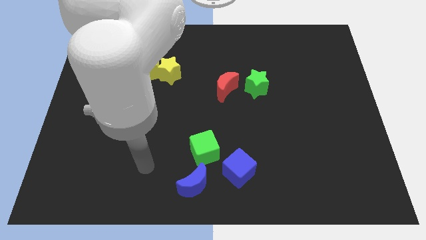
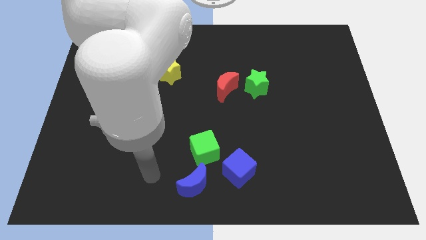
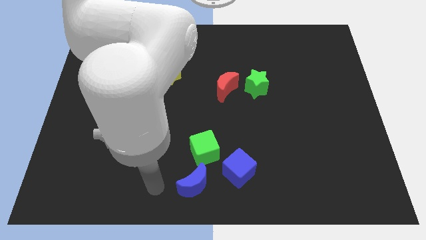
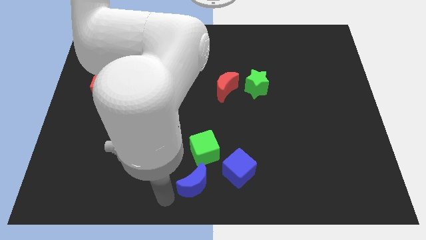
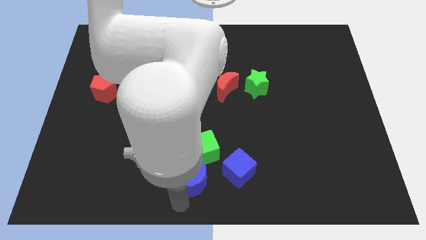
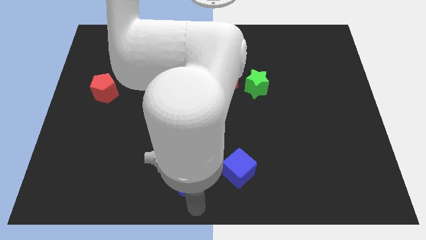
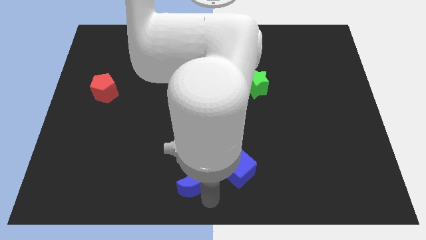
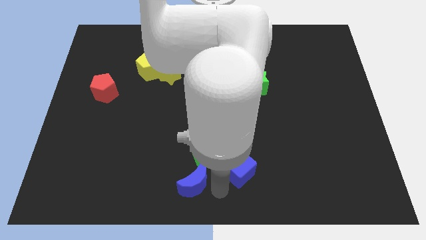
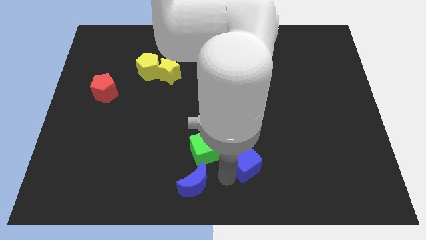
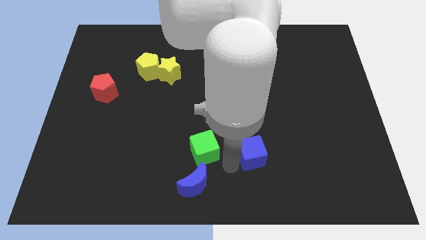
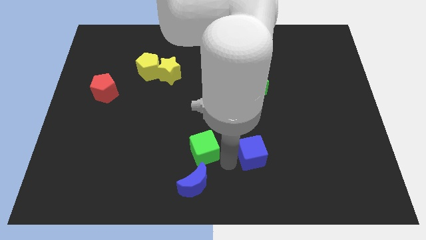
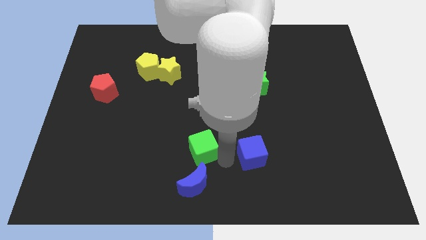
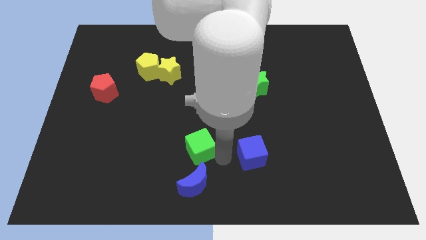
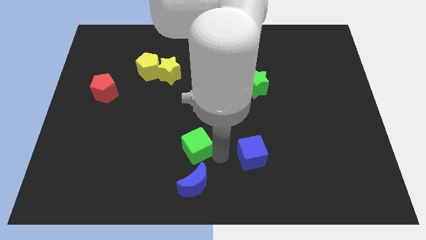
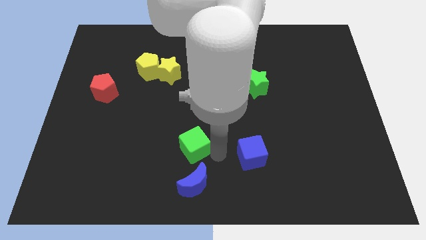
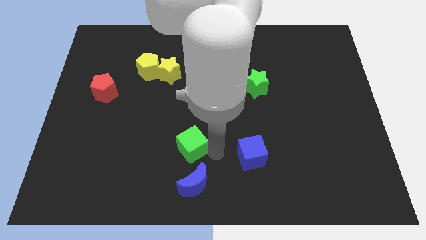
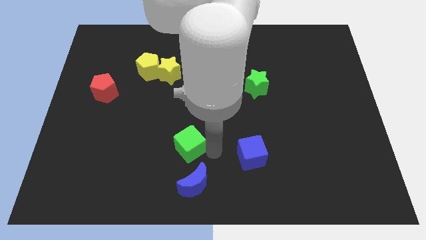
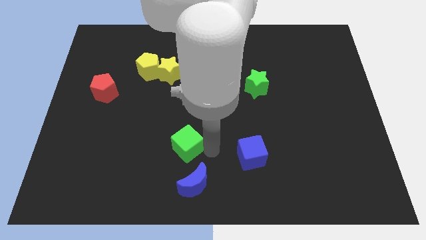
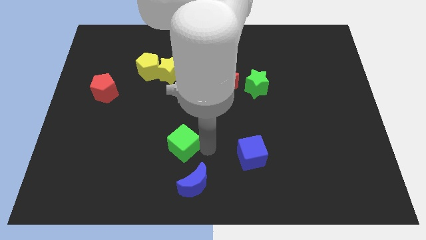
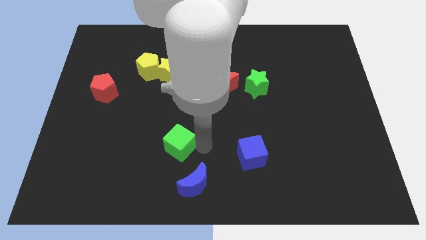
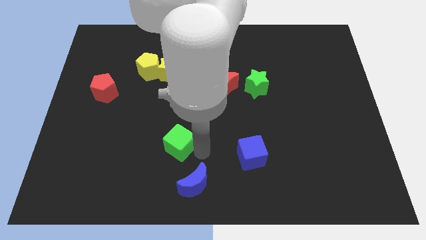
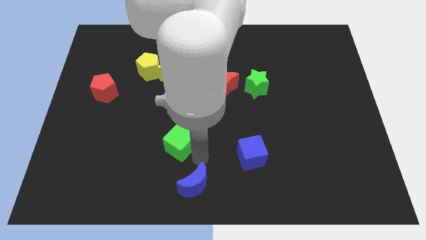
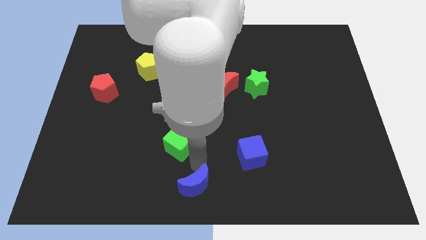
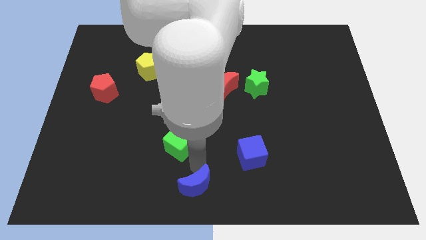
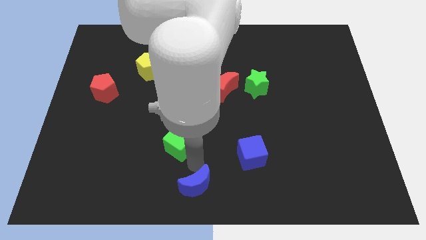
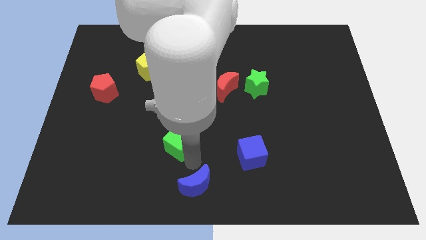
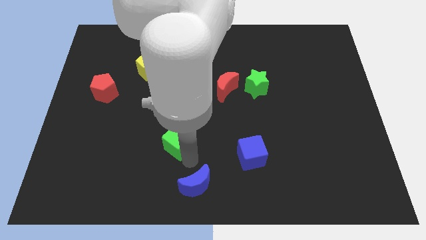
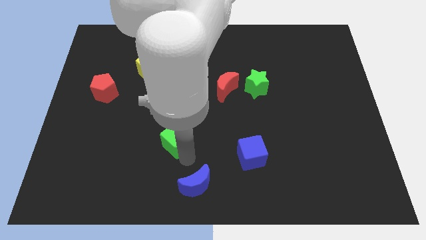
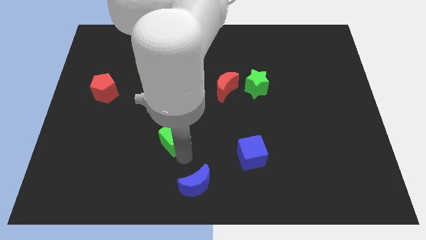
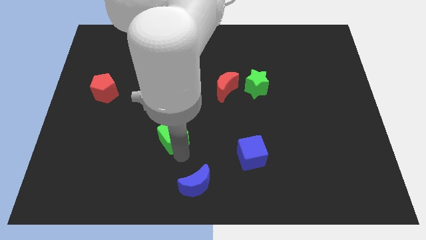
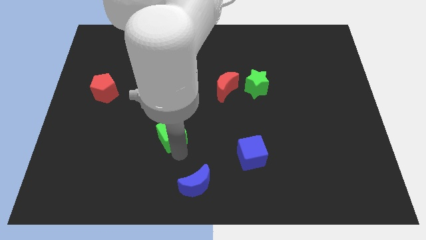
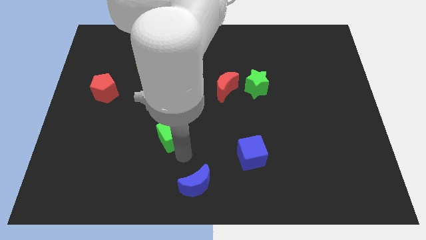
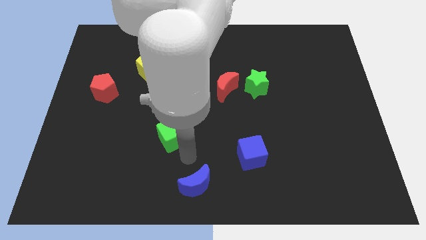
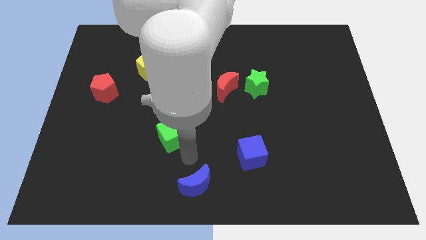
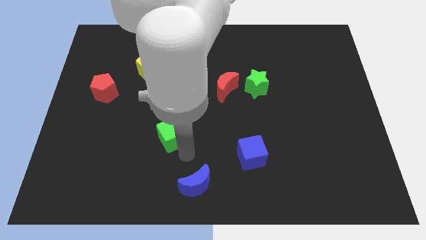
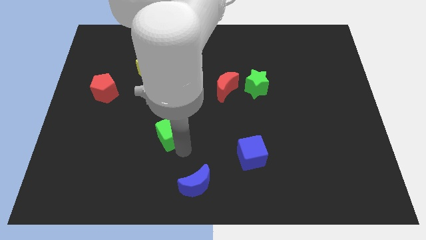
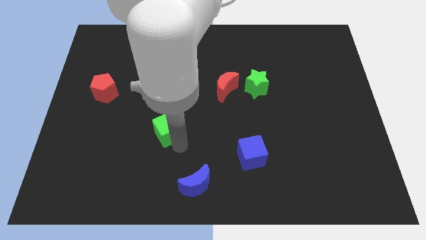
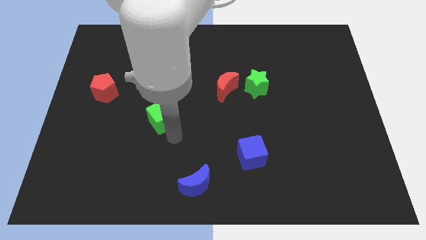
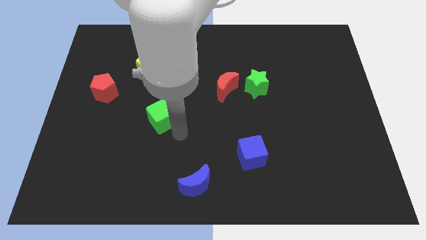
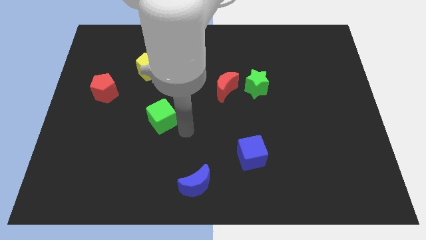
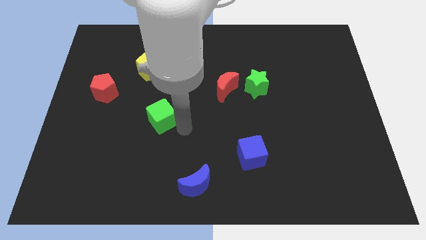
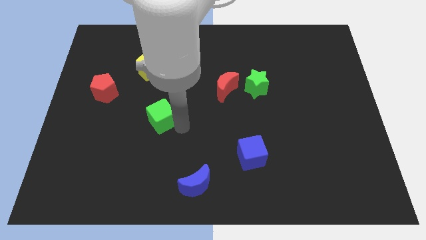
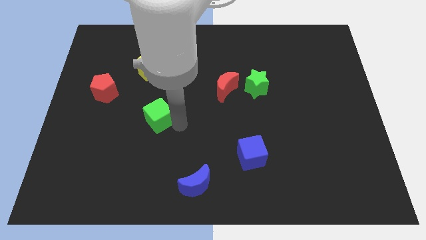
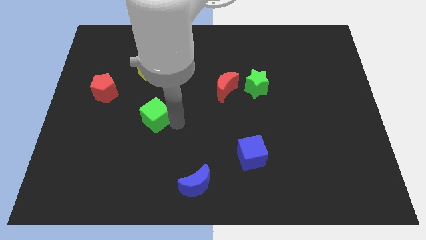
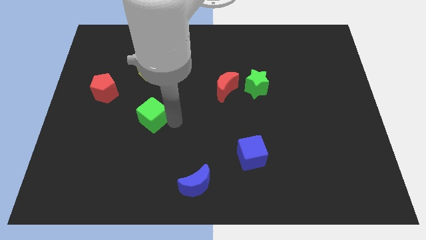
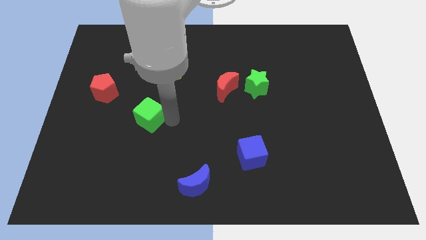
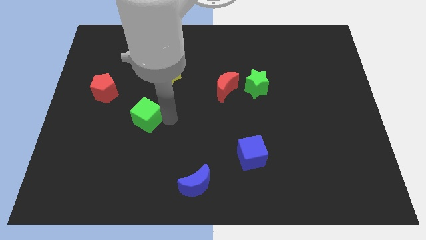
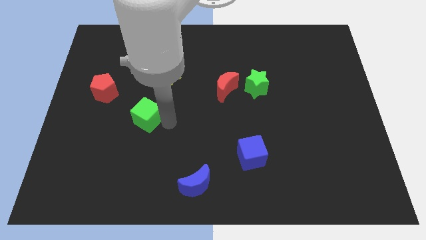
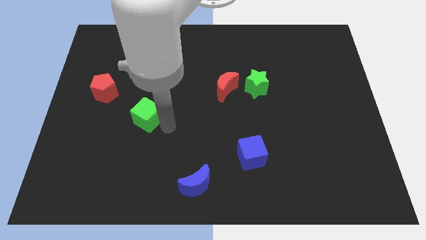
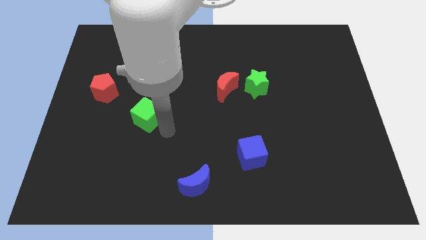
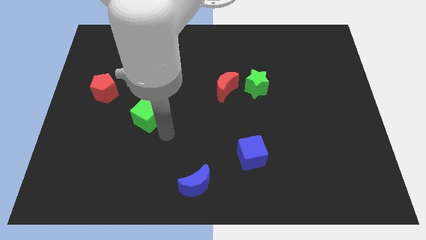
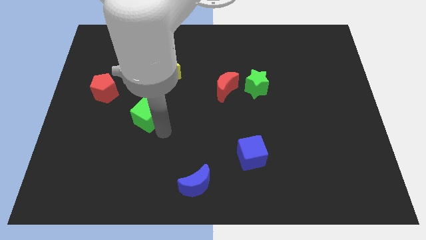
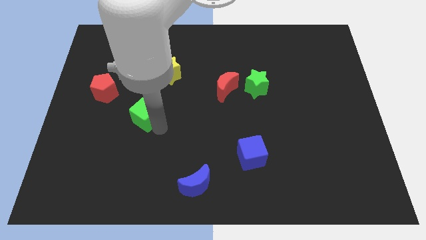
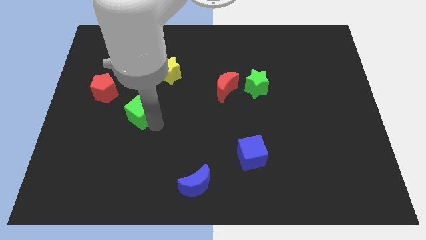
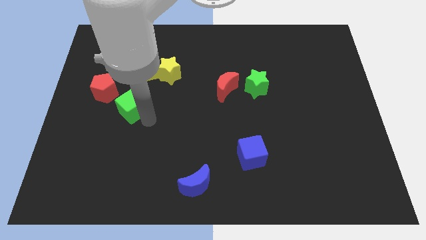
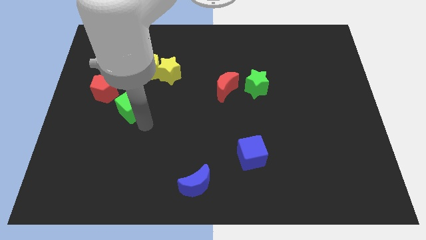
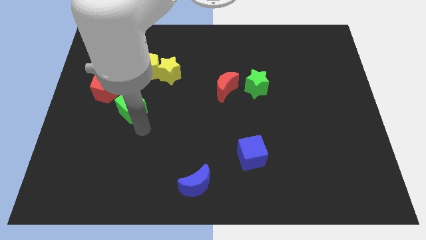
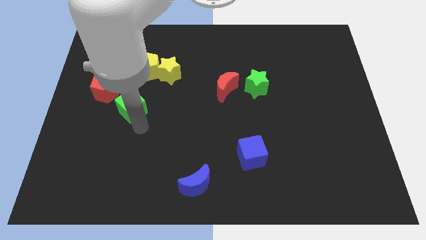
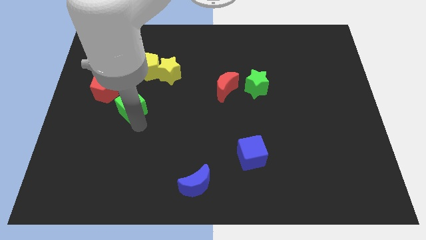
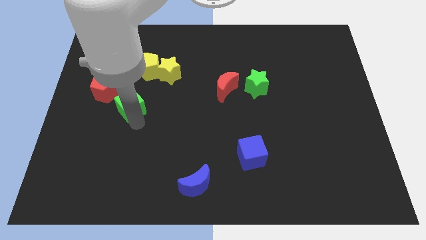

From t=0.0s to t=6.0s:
push the green cube upwards and to the left diagonally

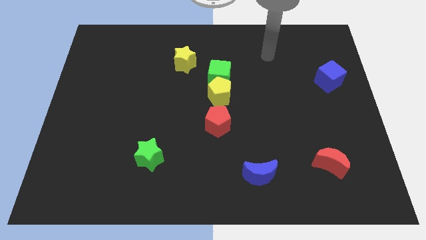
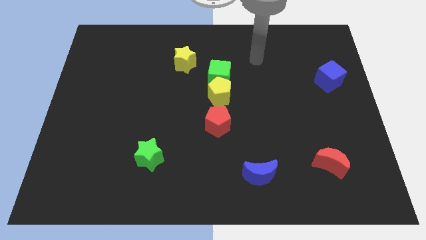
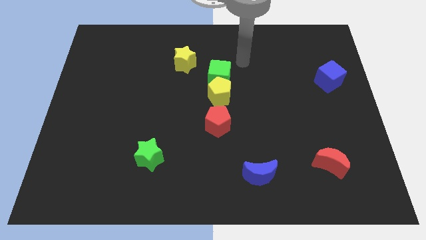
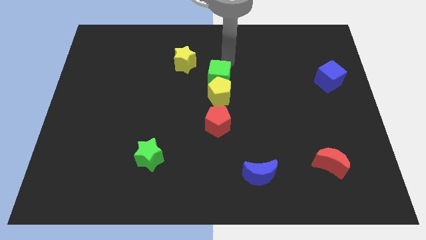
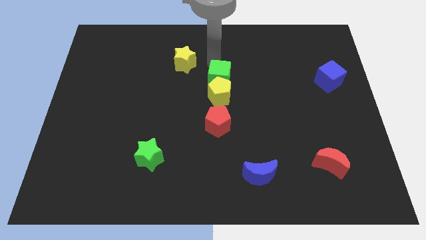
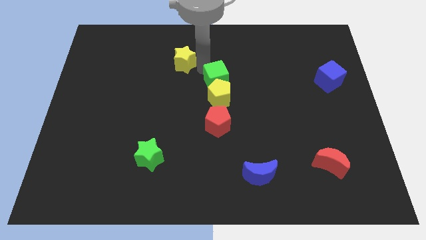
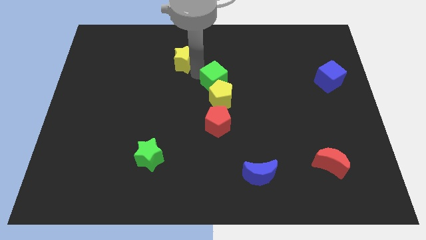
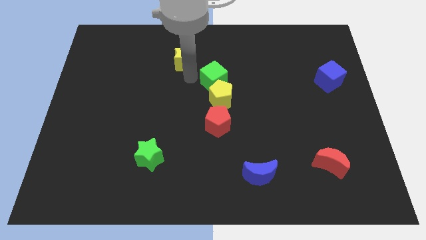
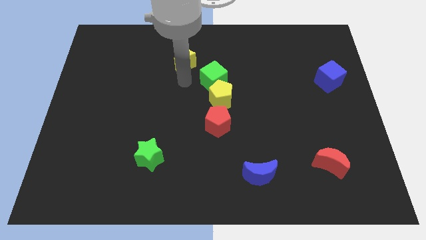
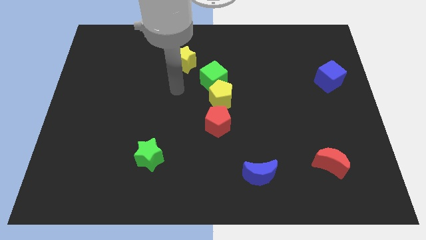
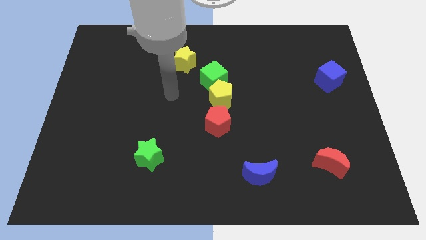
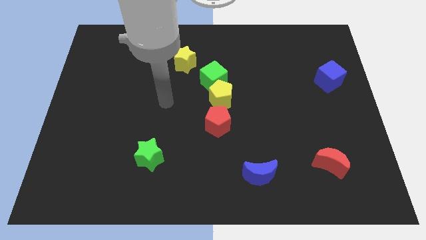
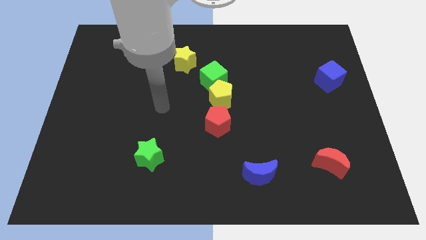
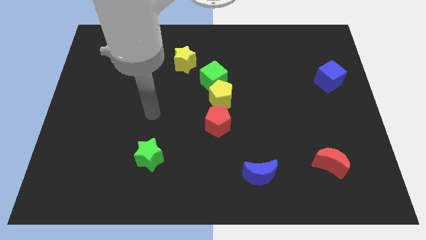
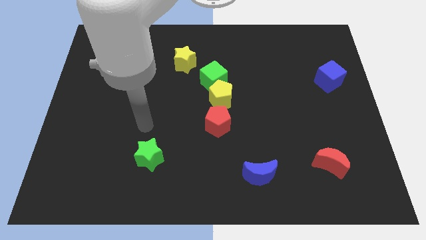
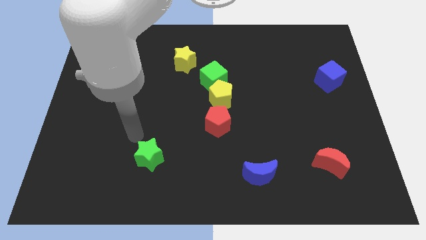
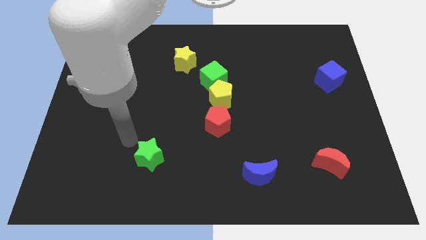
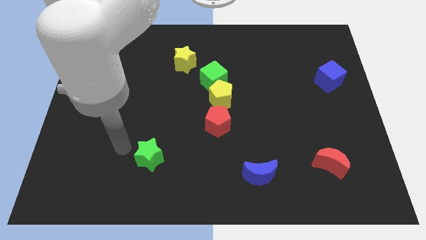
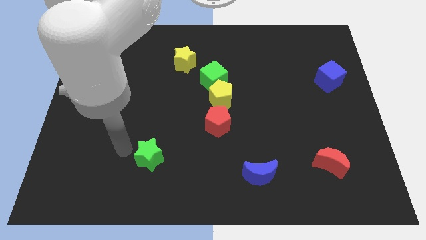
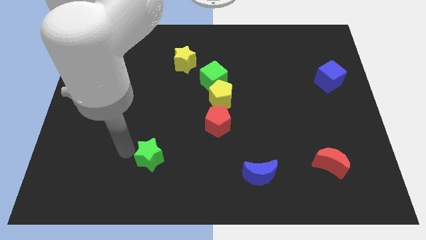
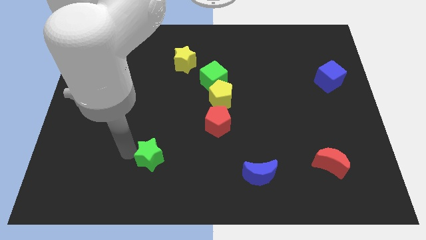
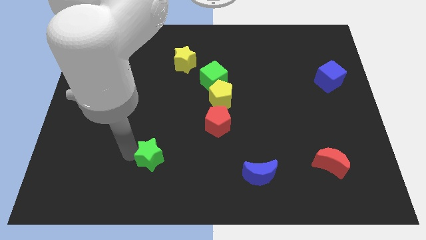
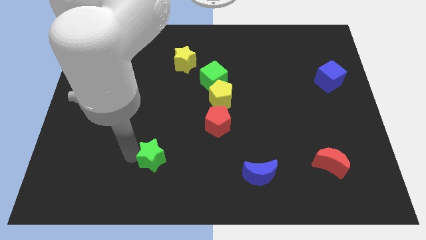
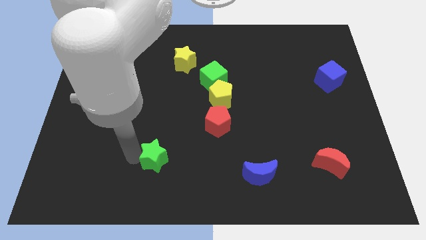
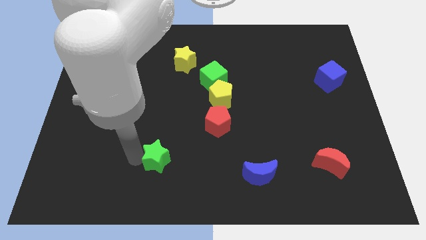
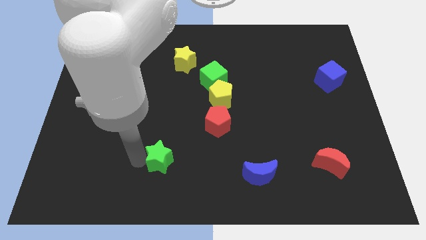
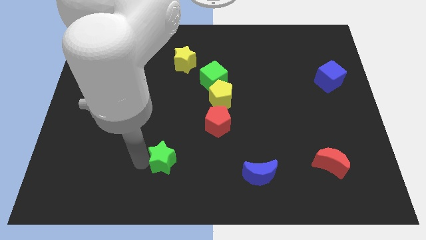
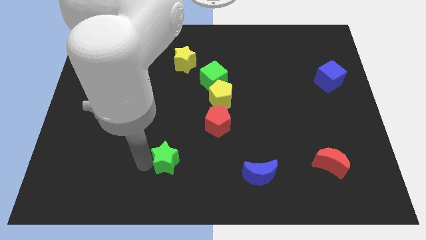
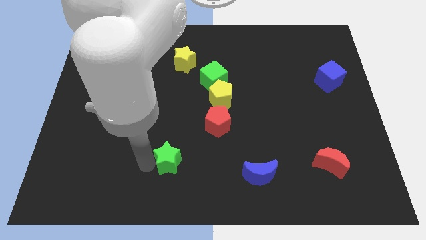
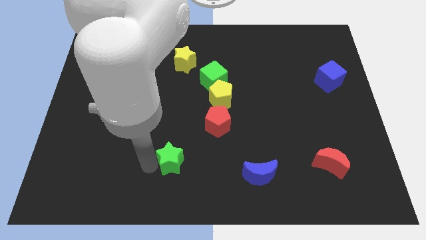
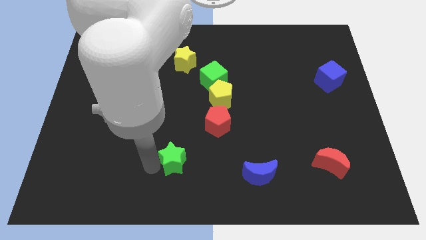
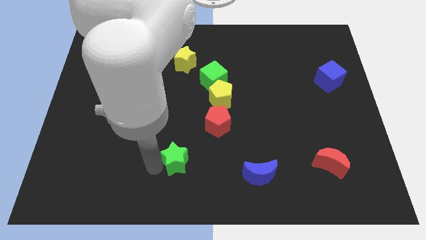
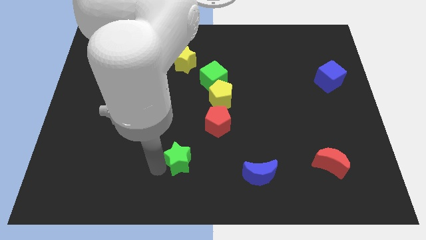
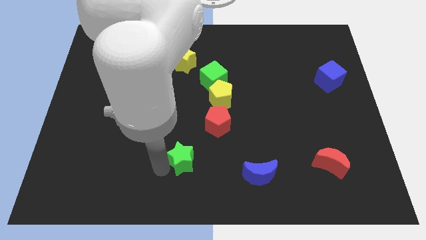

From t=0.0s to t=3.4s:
slide the green star right a bit
